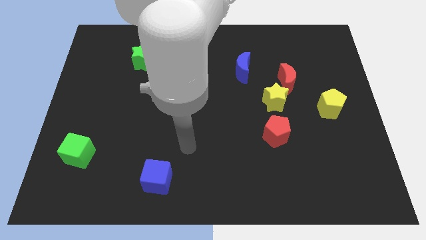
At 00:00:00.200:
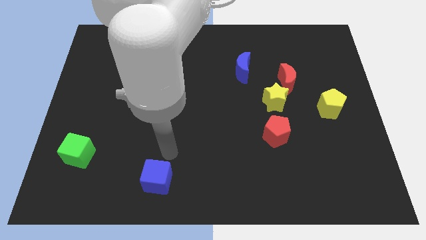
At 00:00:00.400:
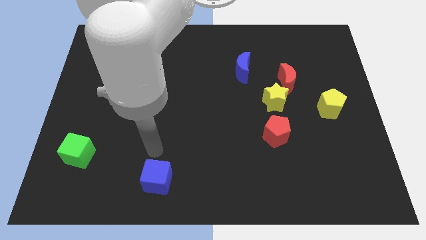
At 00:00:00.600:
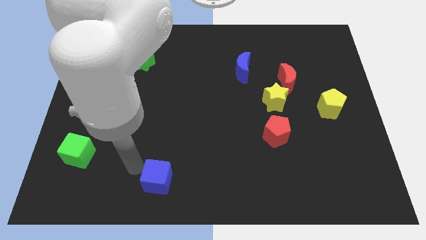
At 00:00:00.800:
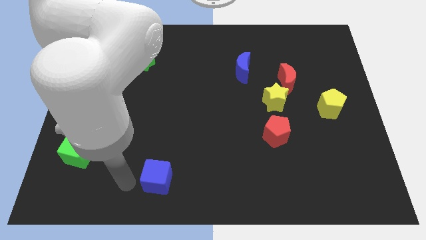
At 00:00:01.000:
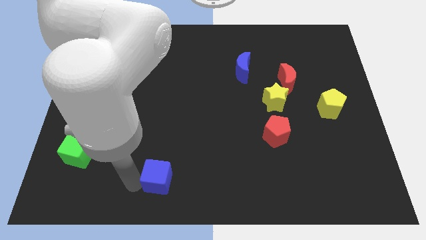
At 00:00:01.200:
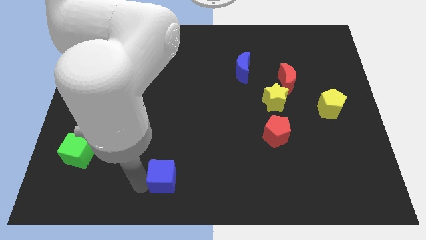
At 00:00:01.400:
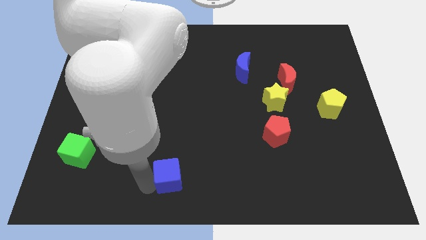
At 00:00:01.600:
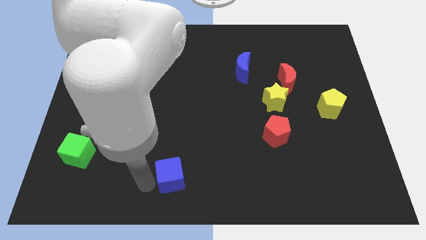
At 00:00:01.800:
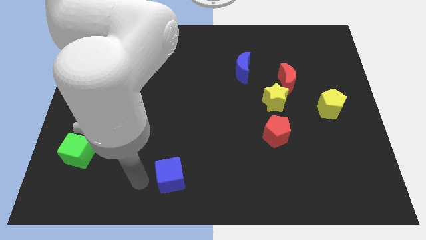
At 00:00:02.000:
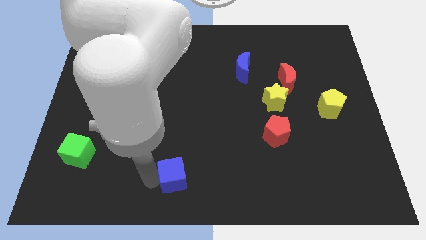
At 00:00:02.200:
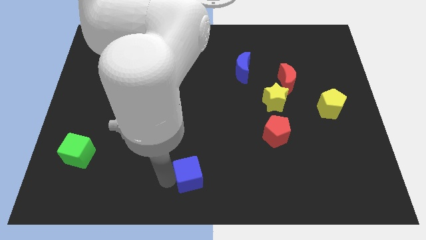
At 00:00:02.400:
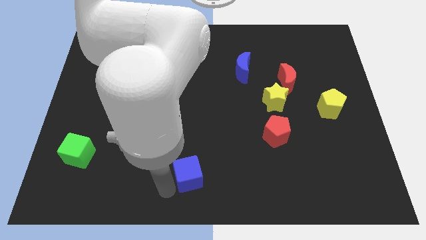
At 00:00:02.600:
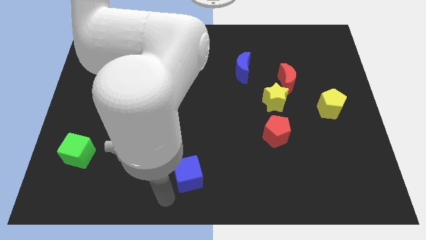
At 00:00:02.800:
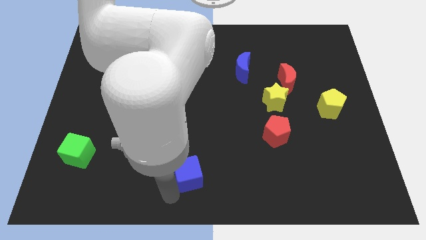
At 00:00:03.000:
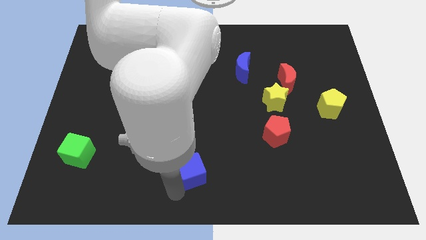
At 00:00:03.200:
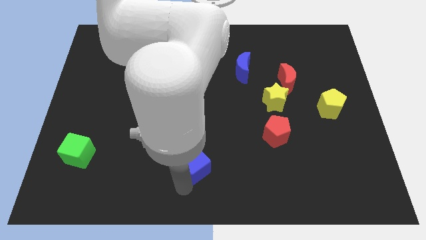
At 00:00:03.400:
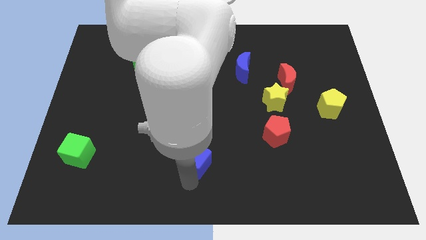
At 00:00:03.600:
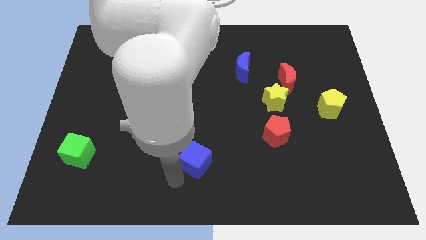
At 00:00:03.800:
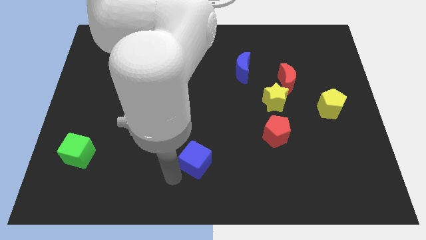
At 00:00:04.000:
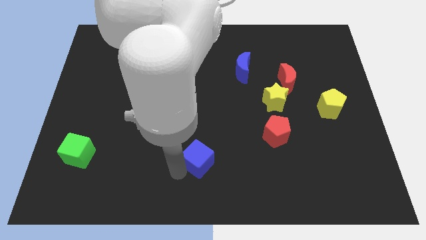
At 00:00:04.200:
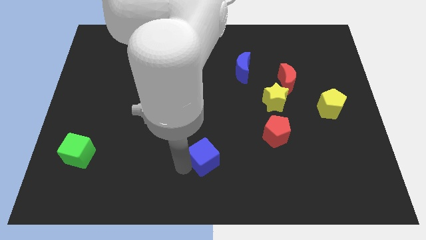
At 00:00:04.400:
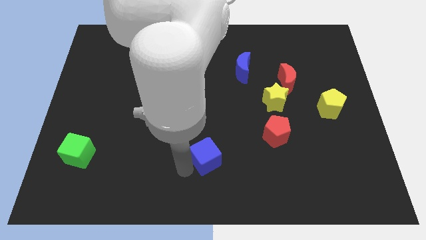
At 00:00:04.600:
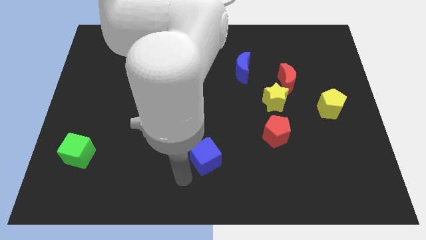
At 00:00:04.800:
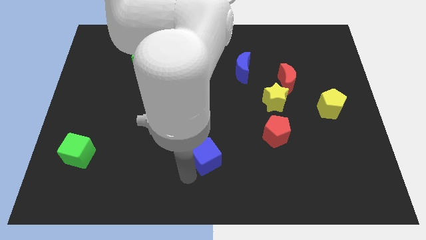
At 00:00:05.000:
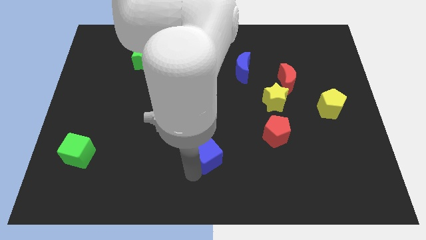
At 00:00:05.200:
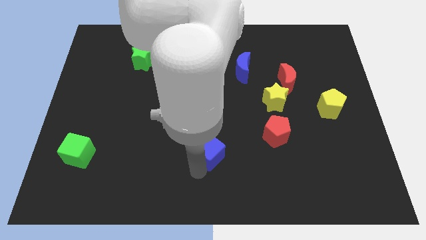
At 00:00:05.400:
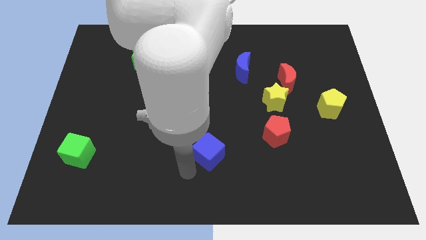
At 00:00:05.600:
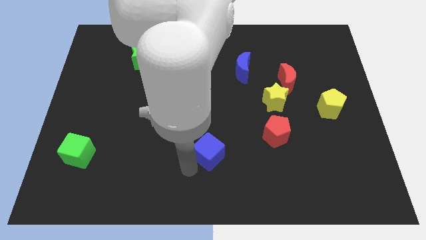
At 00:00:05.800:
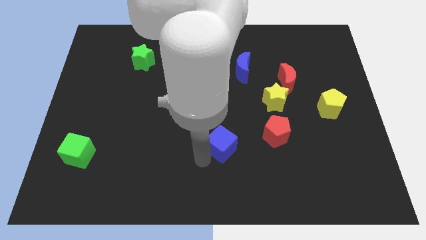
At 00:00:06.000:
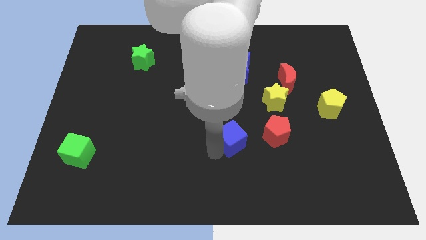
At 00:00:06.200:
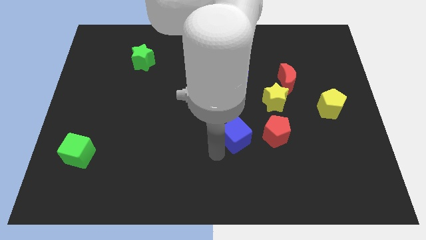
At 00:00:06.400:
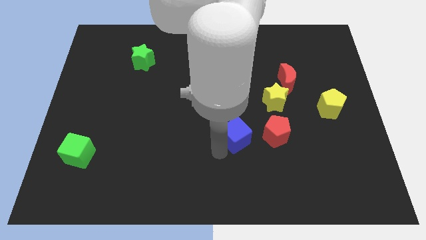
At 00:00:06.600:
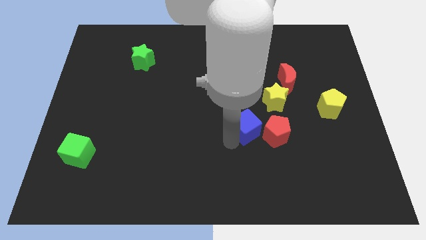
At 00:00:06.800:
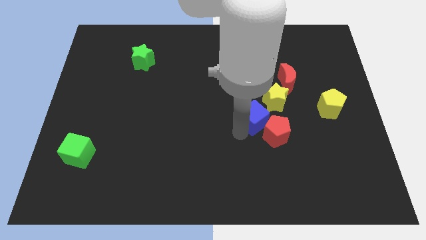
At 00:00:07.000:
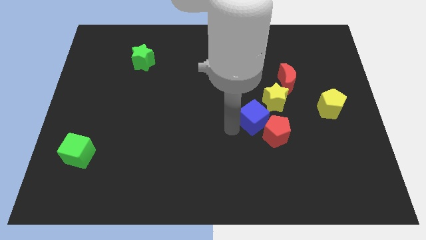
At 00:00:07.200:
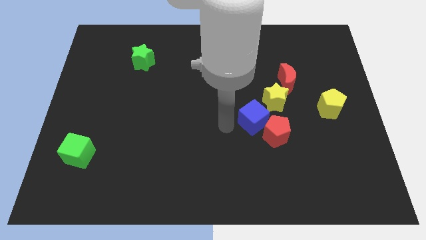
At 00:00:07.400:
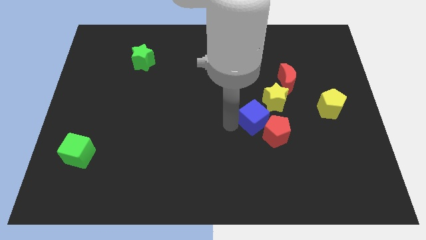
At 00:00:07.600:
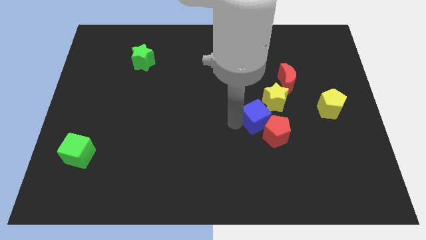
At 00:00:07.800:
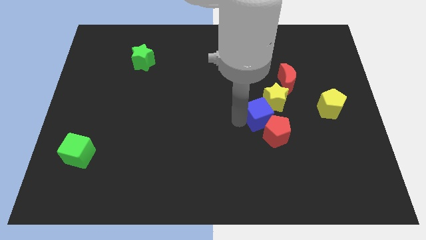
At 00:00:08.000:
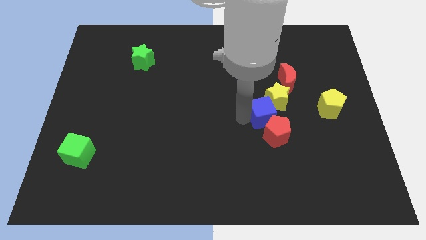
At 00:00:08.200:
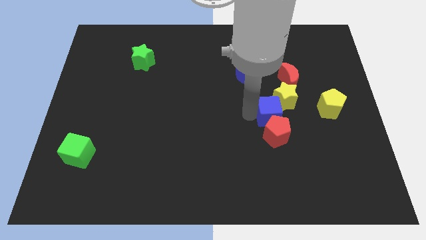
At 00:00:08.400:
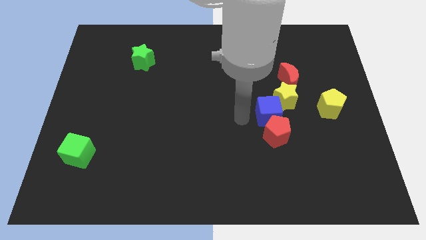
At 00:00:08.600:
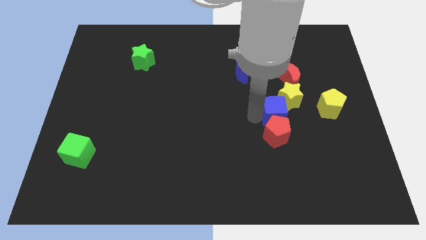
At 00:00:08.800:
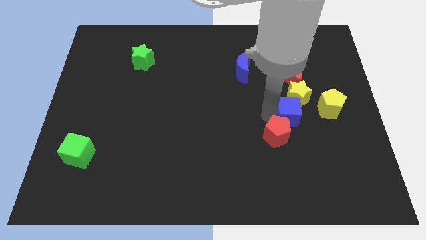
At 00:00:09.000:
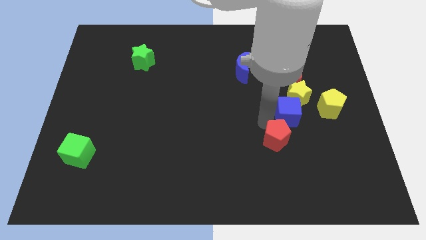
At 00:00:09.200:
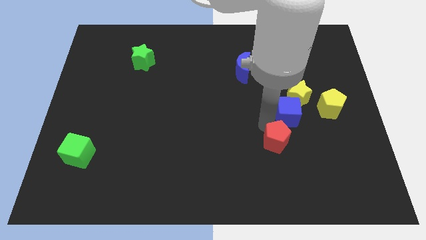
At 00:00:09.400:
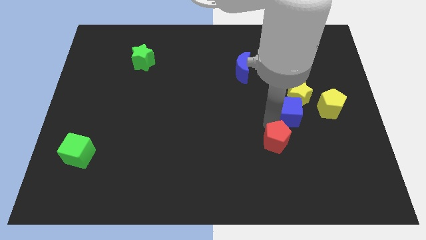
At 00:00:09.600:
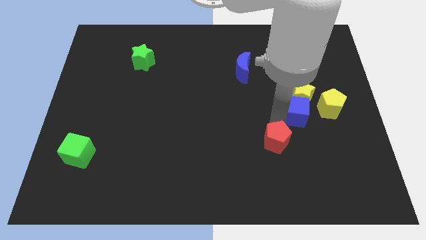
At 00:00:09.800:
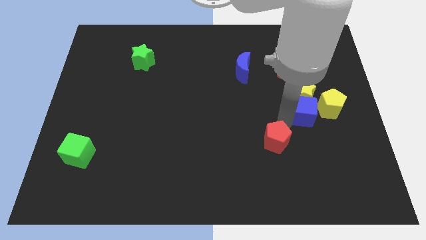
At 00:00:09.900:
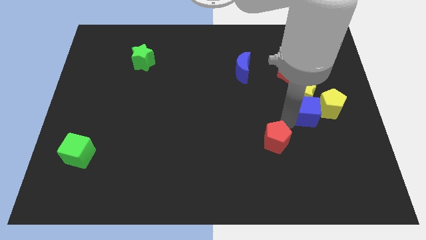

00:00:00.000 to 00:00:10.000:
slide the blue cube next to the yellow pentagon

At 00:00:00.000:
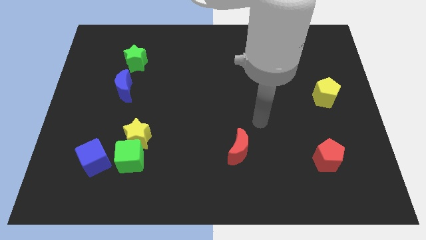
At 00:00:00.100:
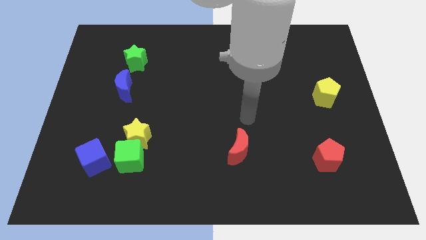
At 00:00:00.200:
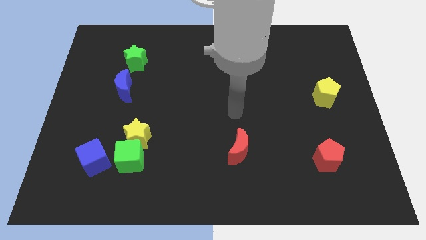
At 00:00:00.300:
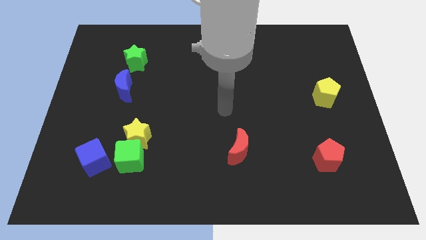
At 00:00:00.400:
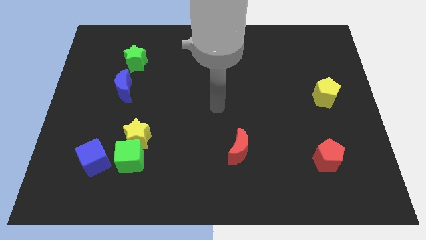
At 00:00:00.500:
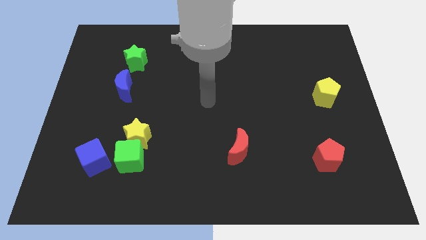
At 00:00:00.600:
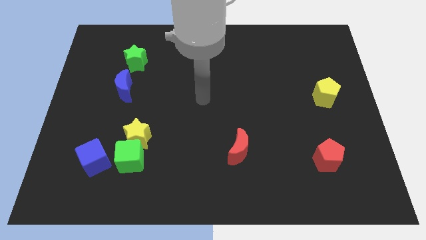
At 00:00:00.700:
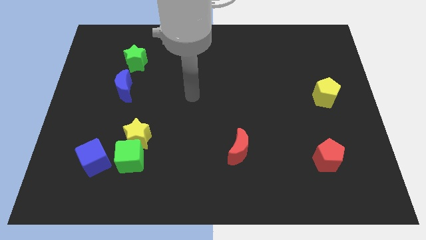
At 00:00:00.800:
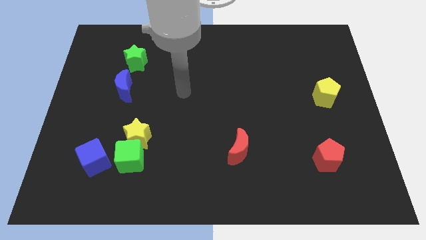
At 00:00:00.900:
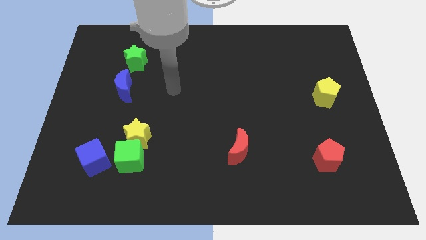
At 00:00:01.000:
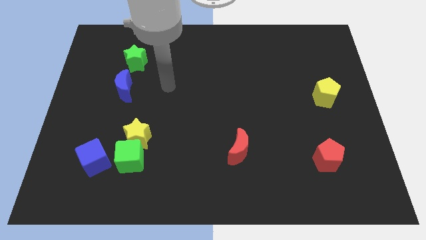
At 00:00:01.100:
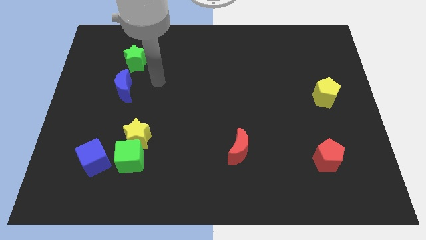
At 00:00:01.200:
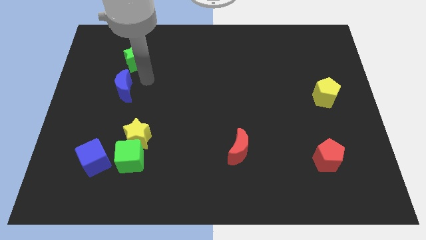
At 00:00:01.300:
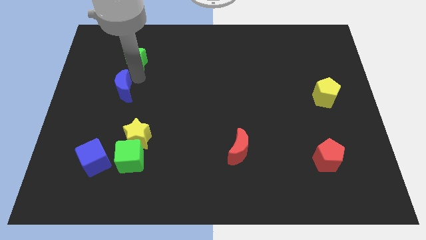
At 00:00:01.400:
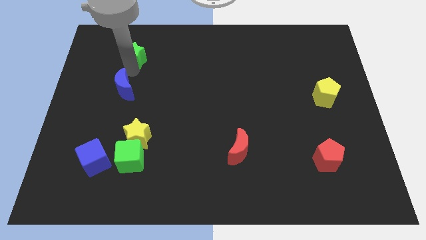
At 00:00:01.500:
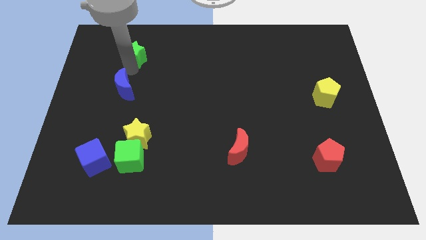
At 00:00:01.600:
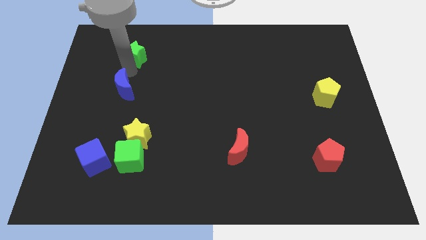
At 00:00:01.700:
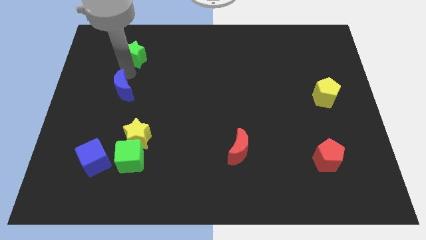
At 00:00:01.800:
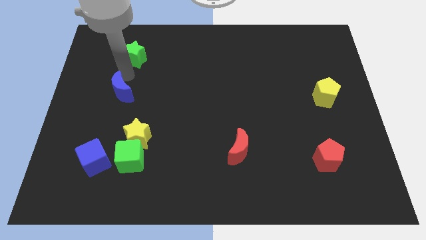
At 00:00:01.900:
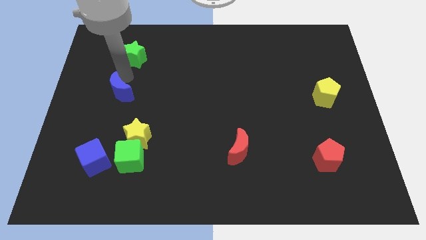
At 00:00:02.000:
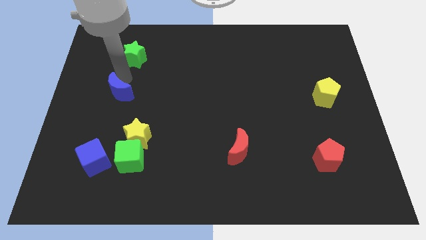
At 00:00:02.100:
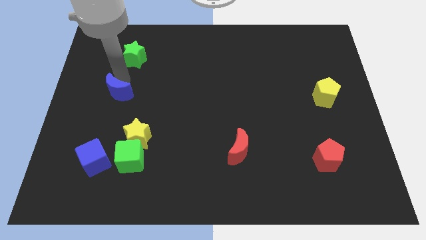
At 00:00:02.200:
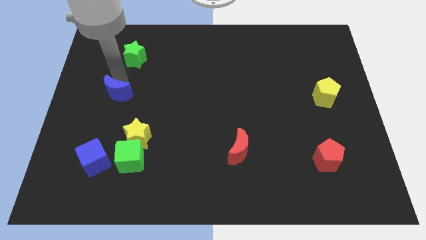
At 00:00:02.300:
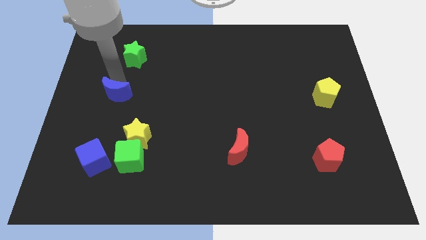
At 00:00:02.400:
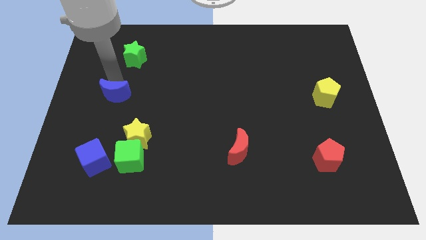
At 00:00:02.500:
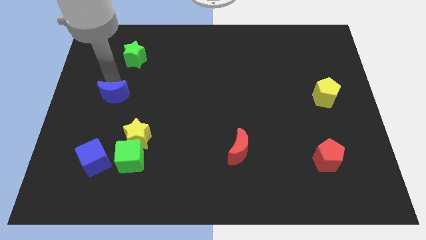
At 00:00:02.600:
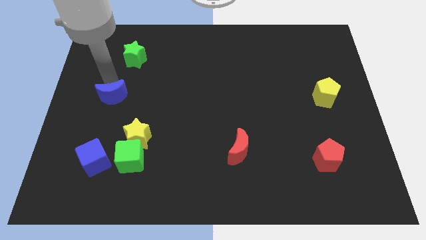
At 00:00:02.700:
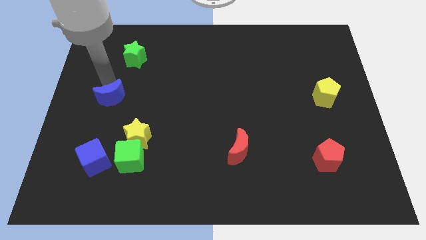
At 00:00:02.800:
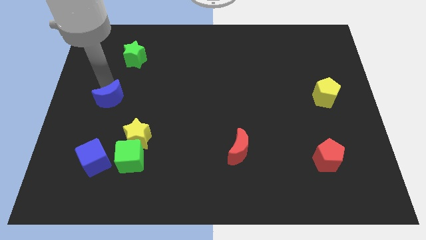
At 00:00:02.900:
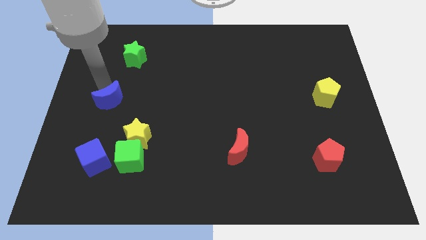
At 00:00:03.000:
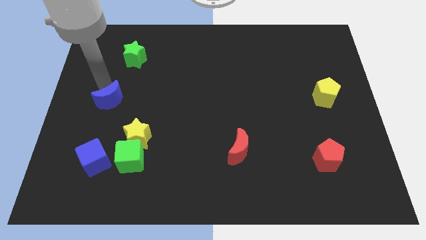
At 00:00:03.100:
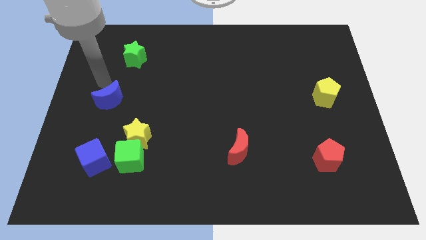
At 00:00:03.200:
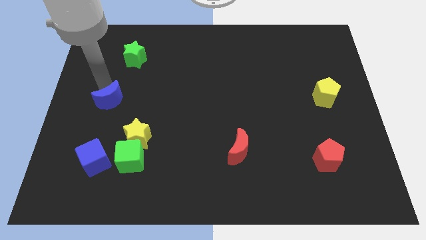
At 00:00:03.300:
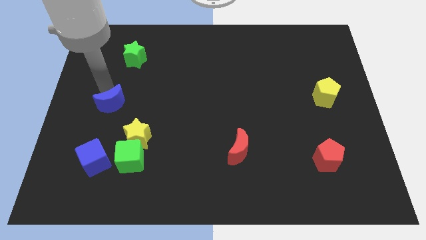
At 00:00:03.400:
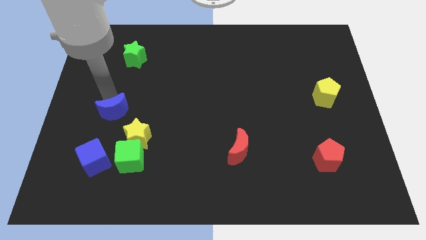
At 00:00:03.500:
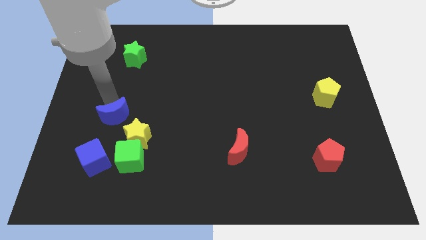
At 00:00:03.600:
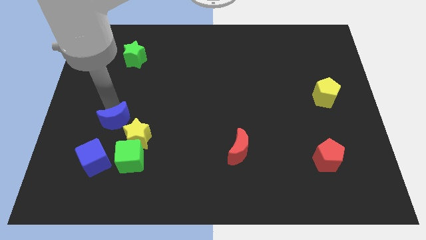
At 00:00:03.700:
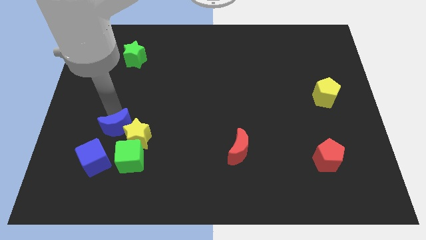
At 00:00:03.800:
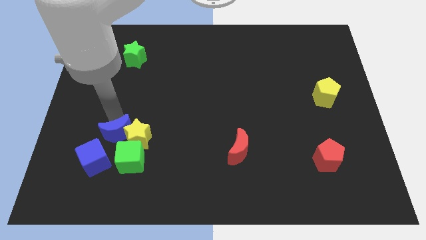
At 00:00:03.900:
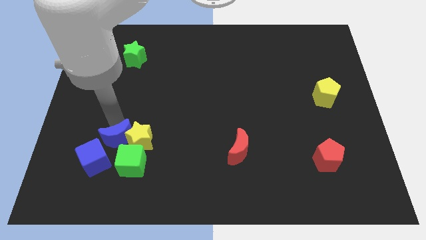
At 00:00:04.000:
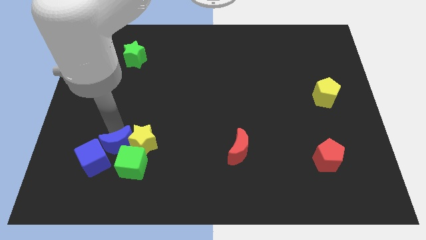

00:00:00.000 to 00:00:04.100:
put the blue moon to the green cube
